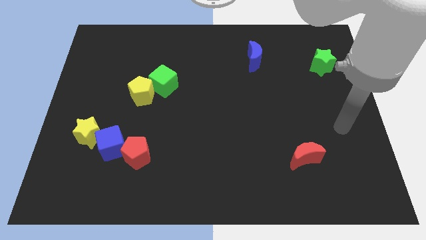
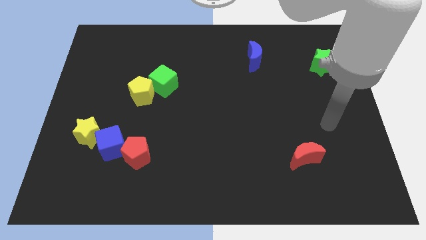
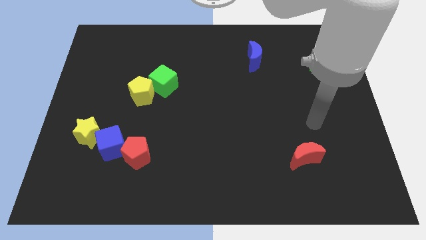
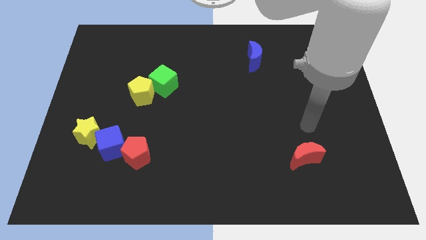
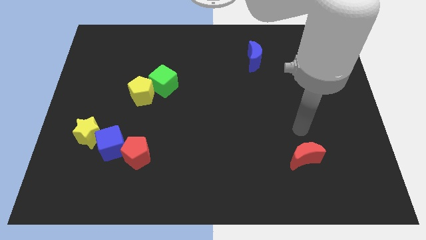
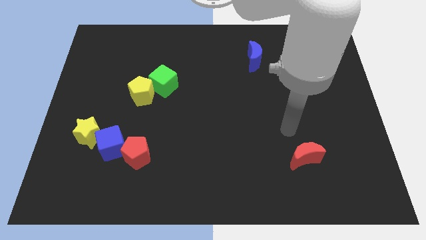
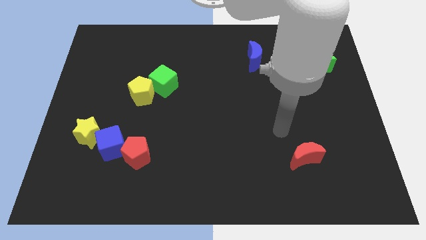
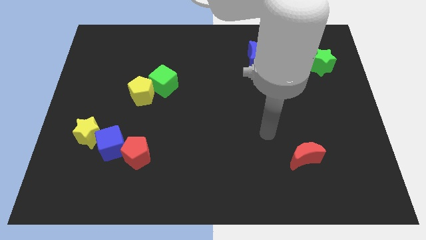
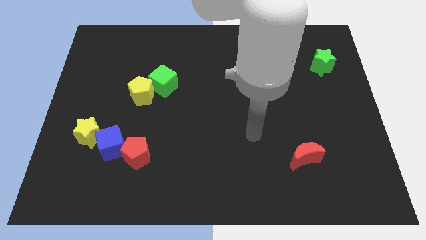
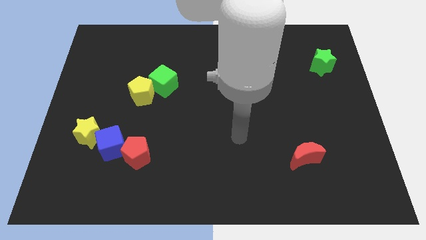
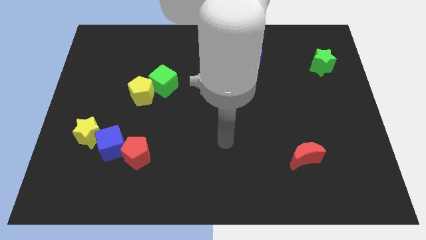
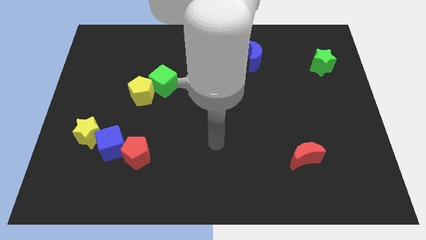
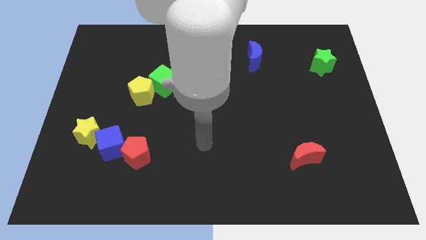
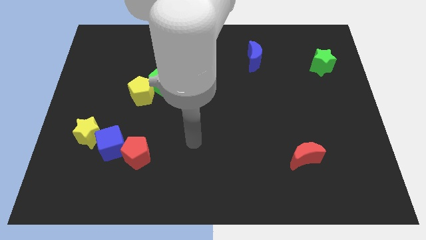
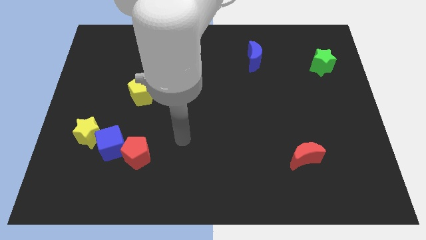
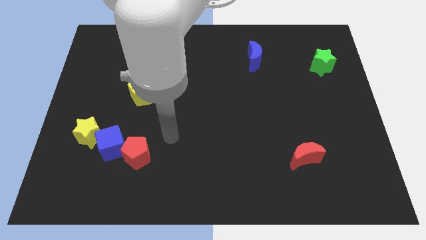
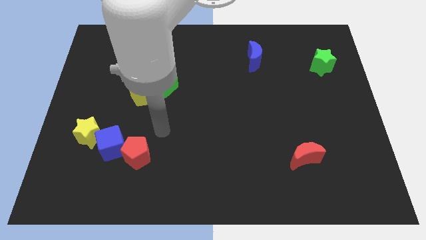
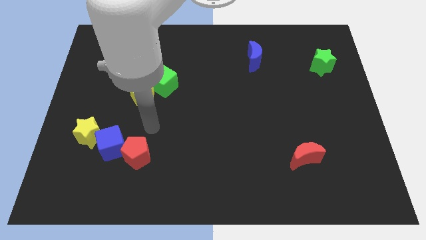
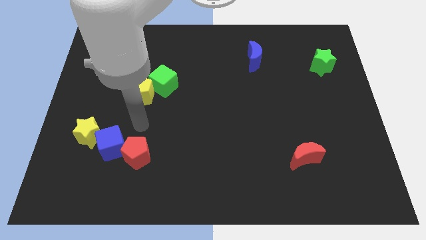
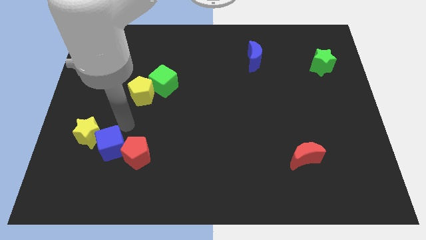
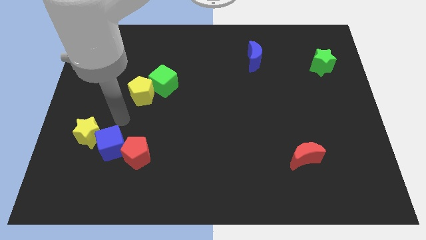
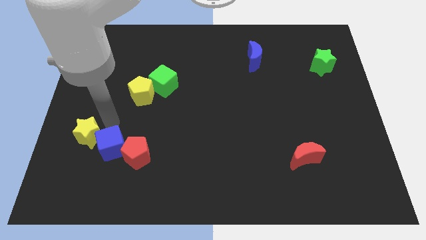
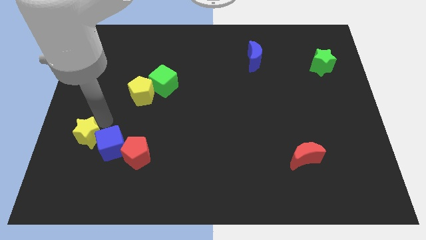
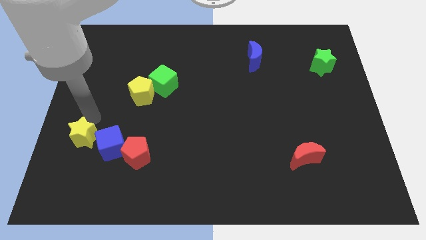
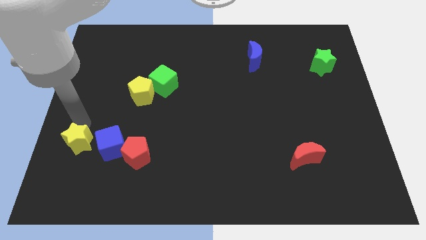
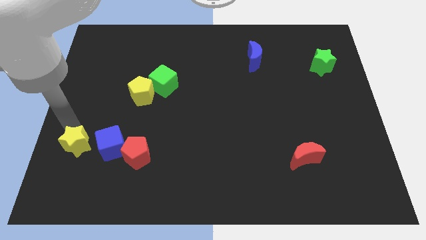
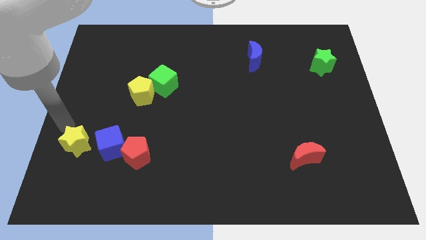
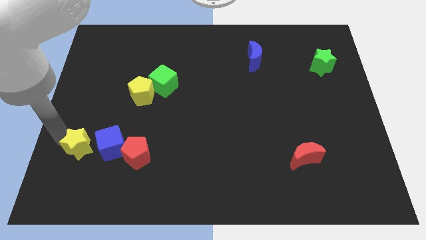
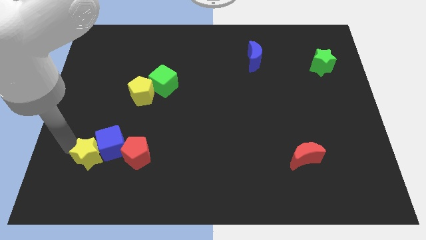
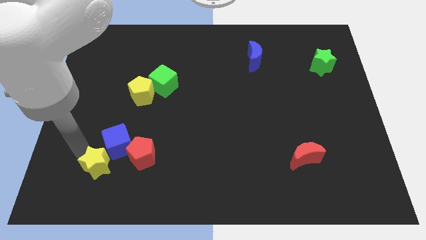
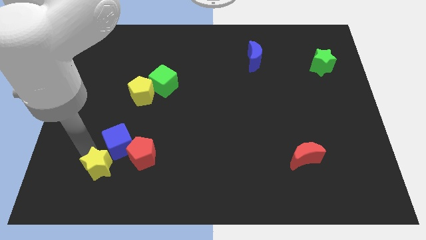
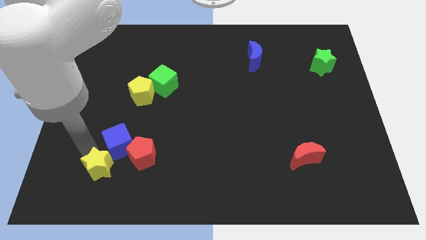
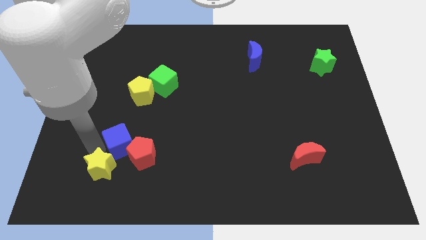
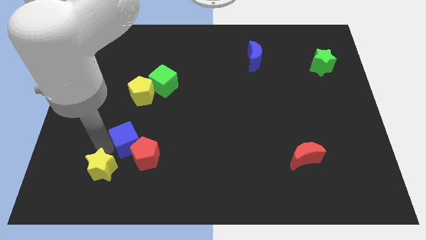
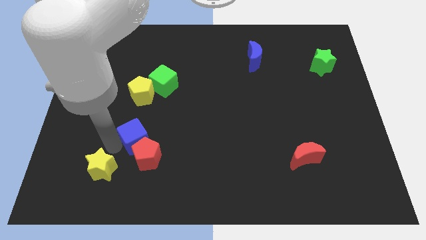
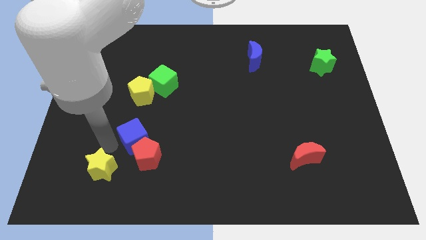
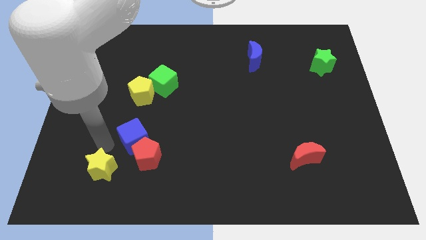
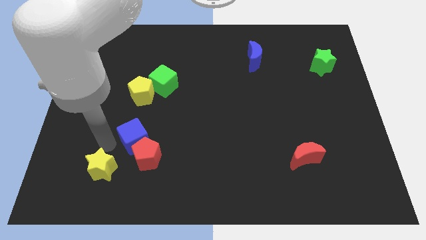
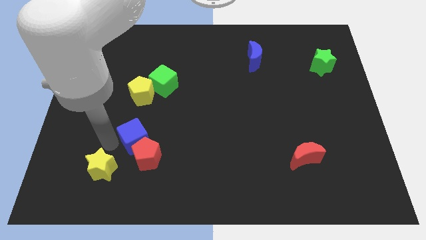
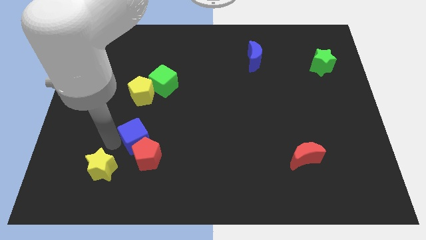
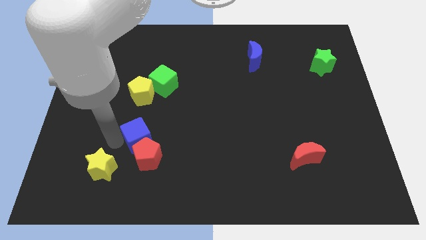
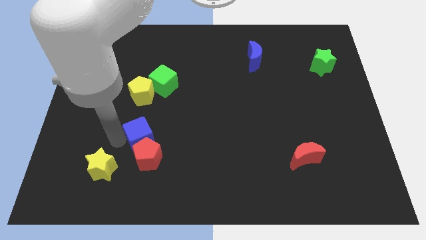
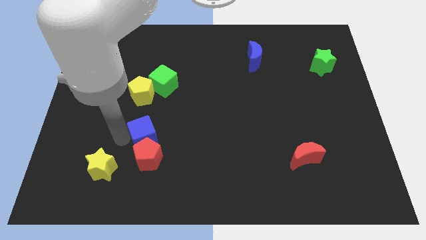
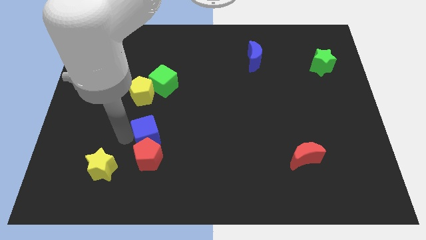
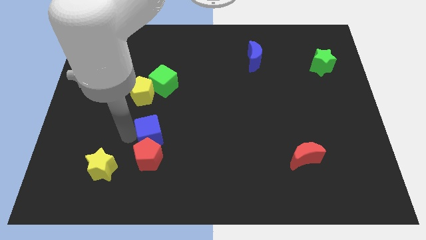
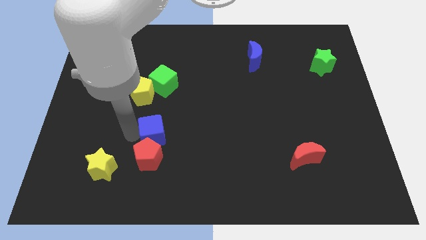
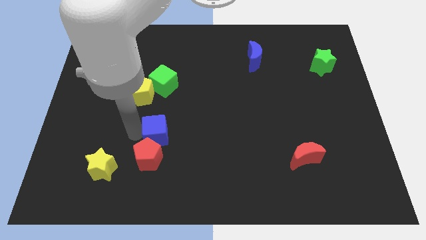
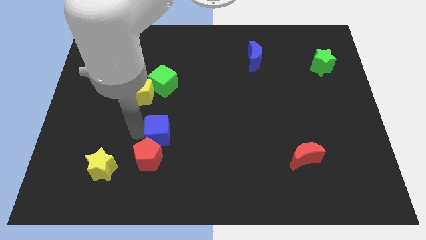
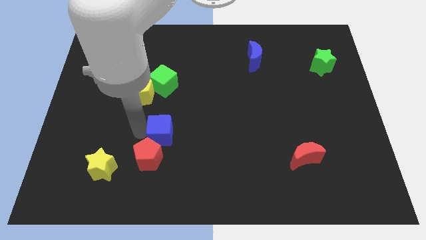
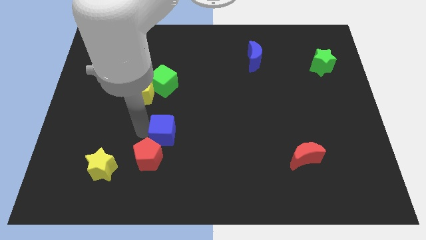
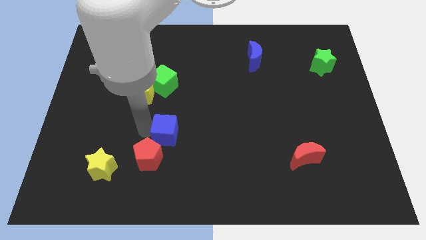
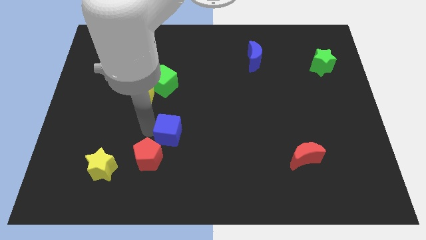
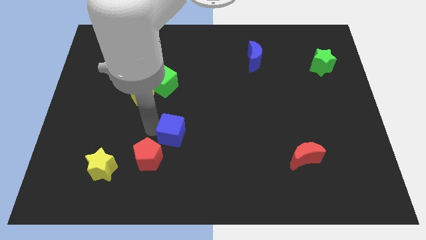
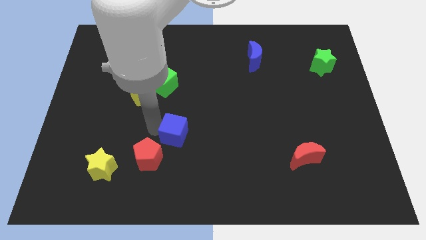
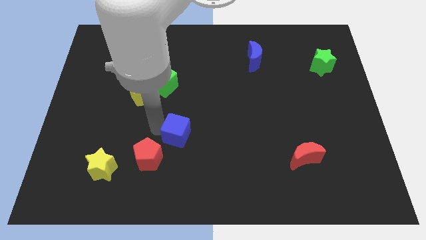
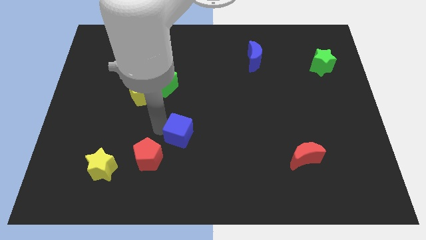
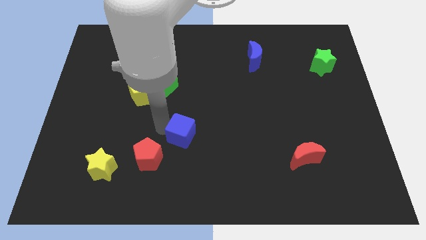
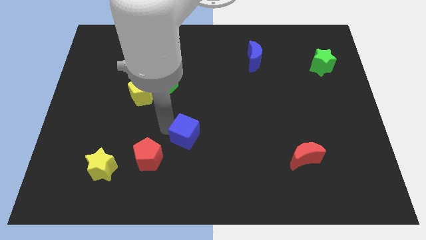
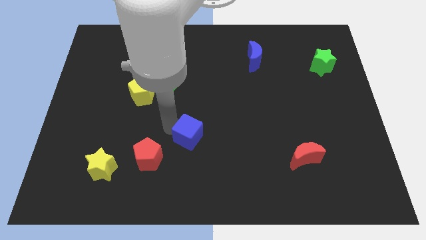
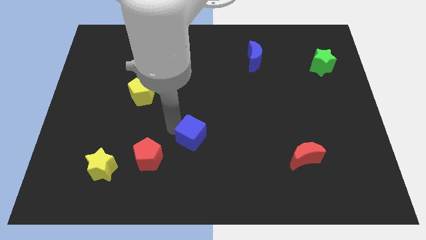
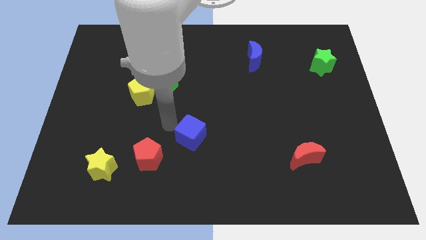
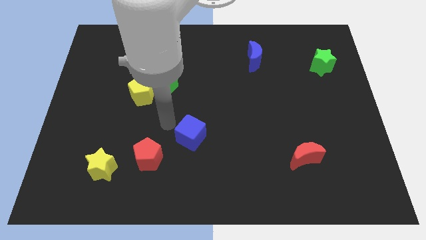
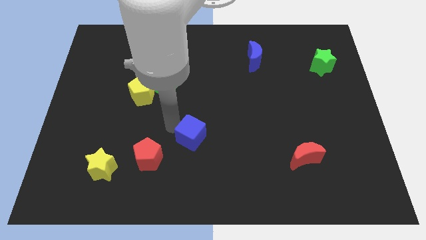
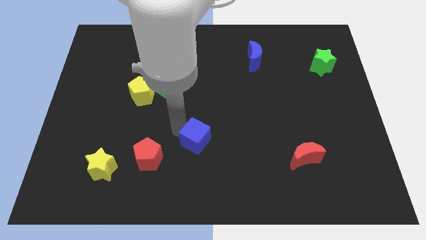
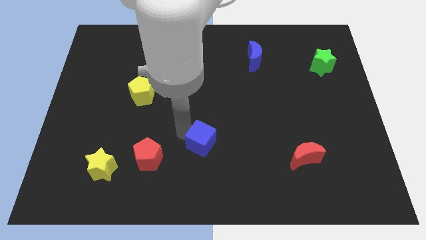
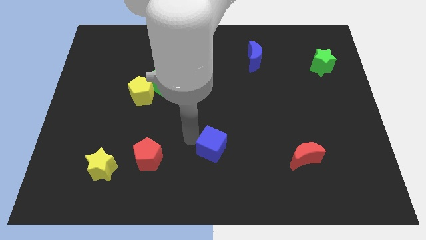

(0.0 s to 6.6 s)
move the blue cube to the right

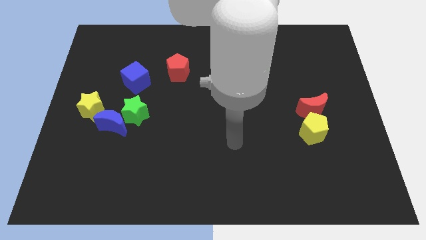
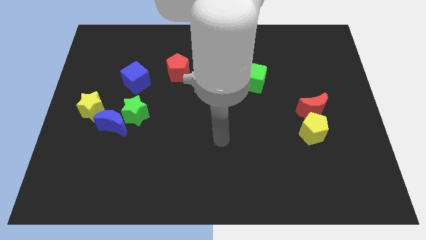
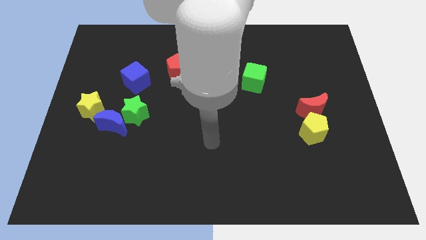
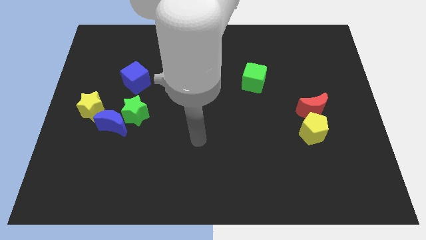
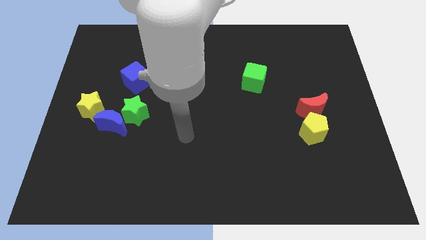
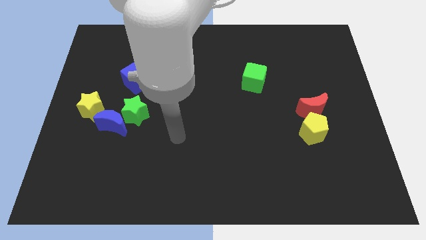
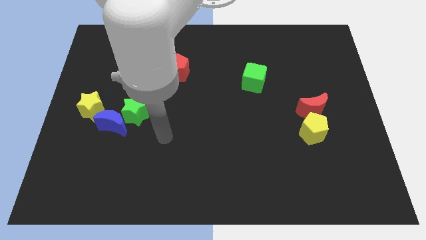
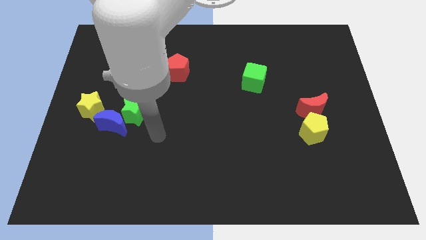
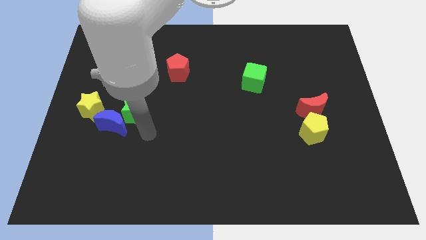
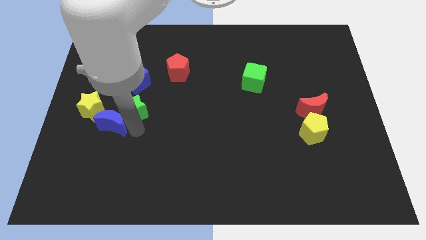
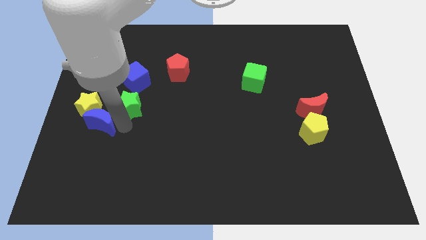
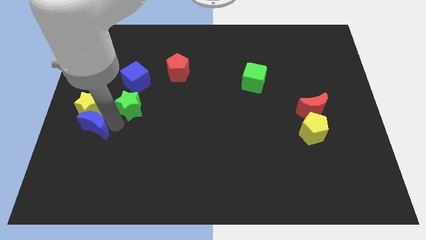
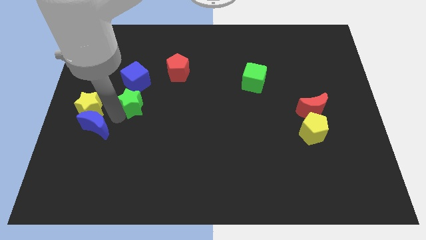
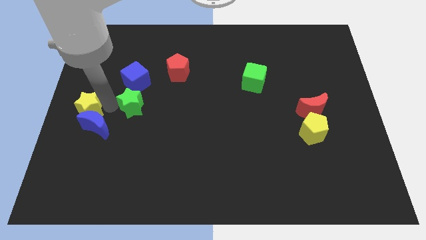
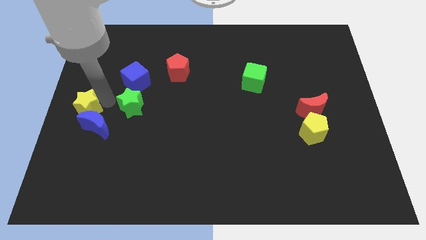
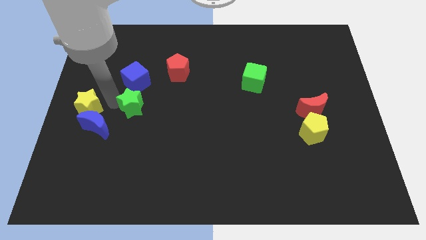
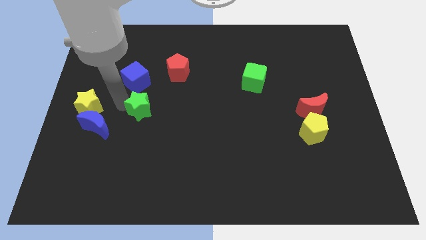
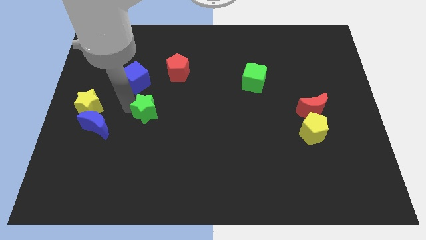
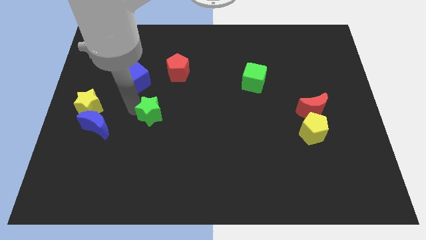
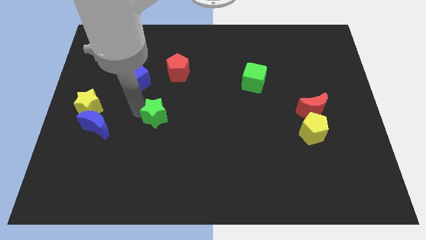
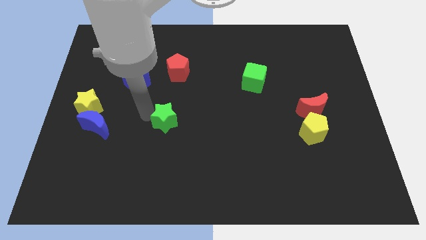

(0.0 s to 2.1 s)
slightly push the green star right
